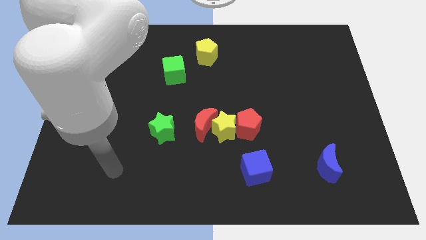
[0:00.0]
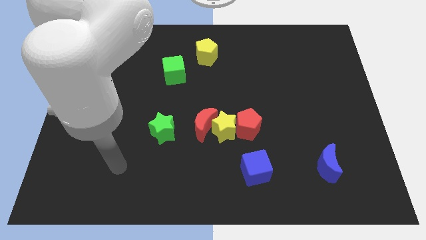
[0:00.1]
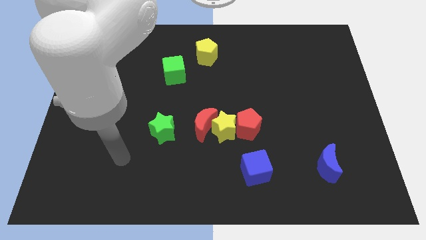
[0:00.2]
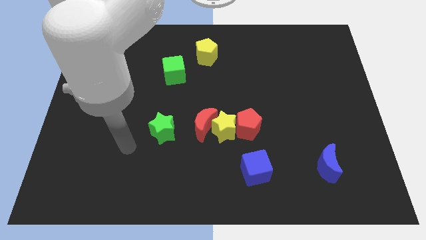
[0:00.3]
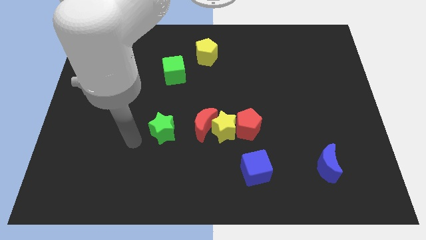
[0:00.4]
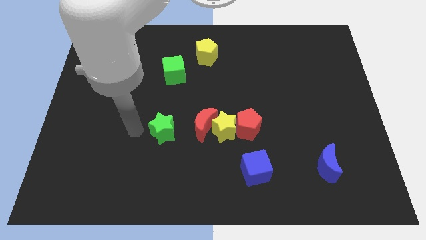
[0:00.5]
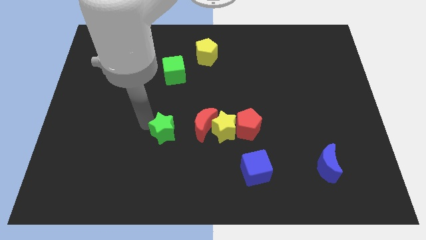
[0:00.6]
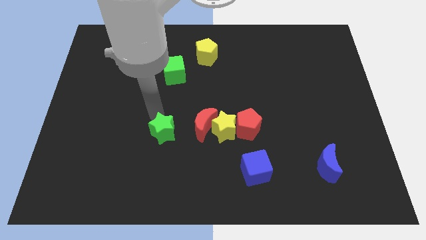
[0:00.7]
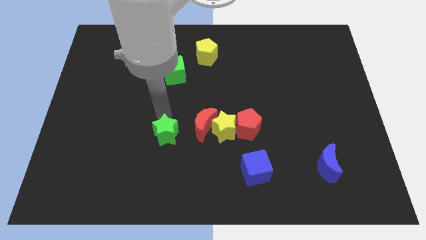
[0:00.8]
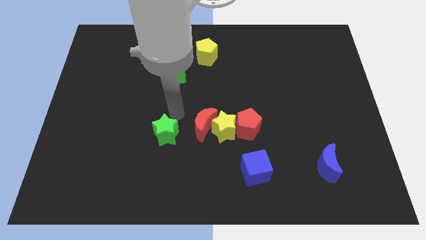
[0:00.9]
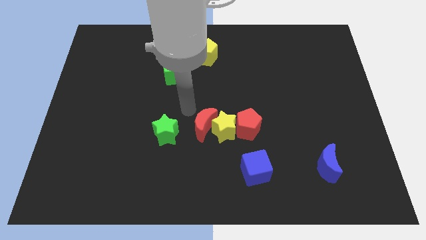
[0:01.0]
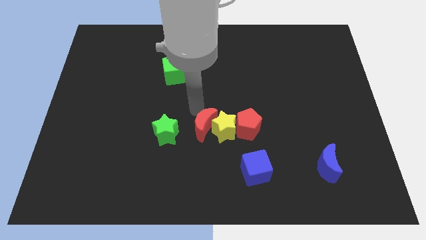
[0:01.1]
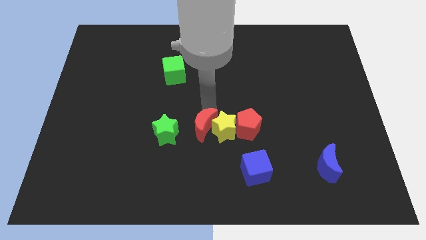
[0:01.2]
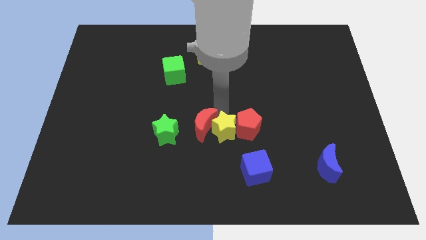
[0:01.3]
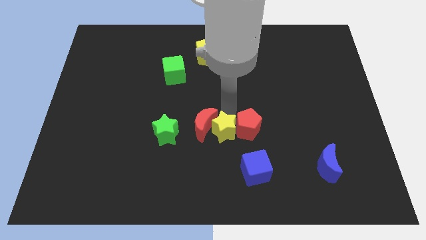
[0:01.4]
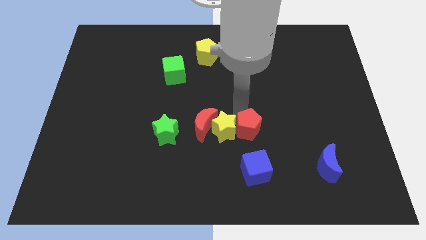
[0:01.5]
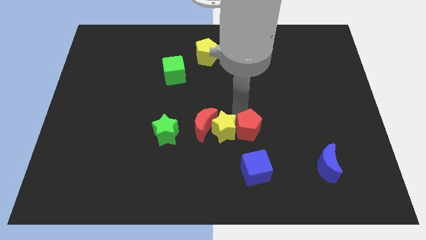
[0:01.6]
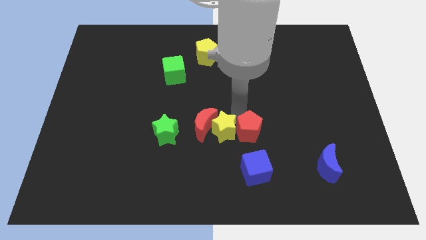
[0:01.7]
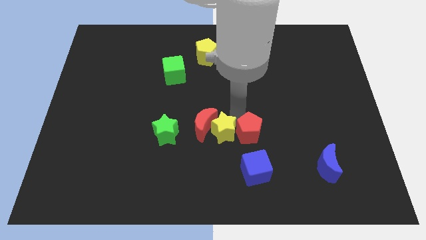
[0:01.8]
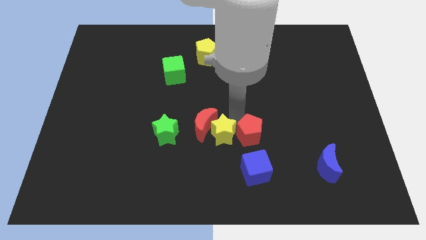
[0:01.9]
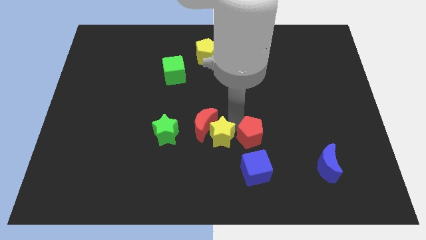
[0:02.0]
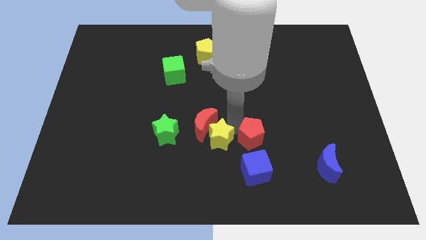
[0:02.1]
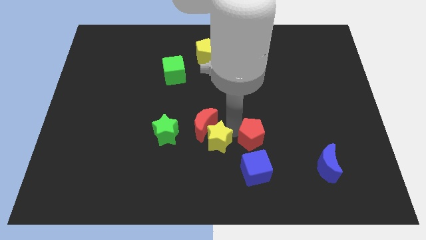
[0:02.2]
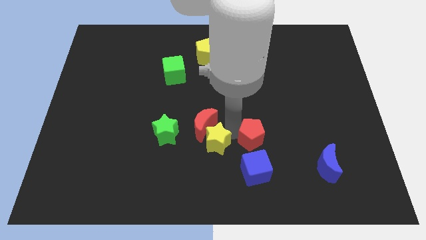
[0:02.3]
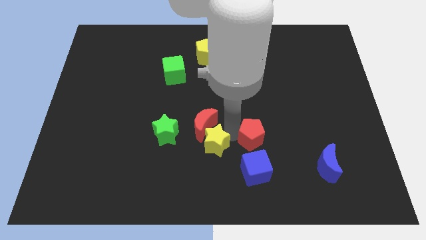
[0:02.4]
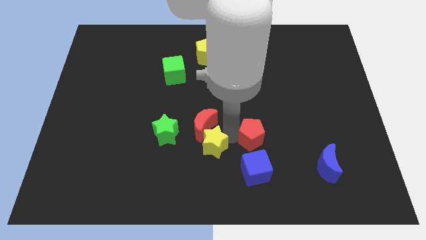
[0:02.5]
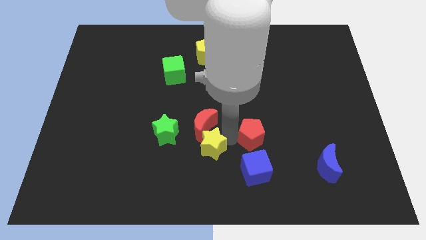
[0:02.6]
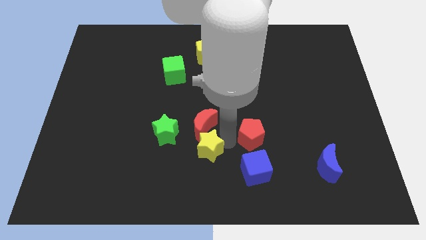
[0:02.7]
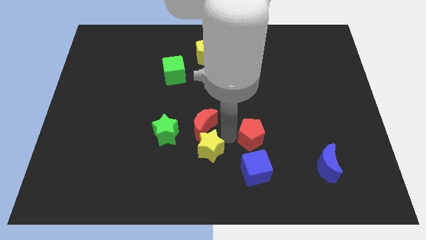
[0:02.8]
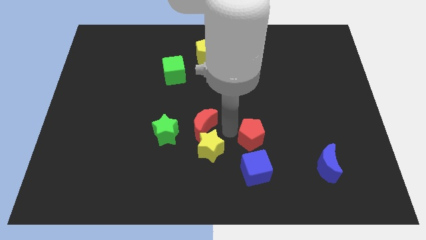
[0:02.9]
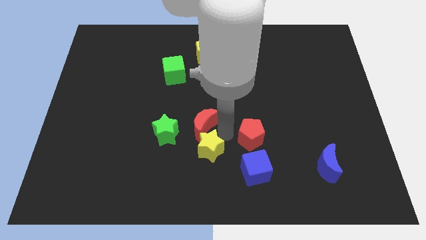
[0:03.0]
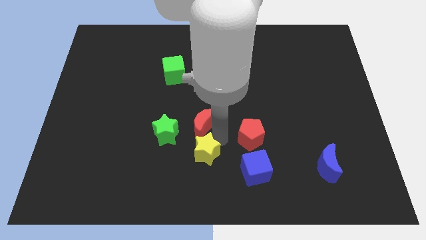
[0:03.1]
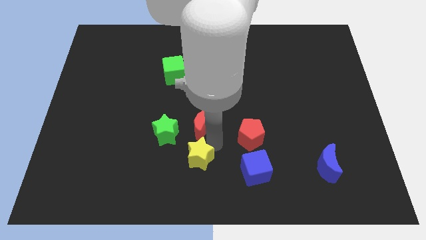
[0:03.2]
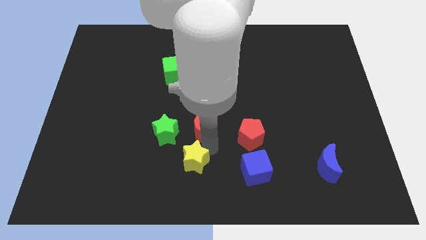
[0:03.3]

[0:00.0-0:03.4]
move the yellow star away from the red moon and red pentagon

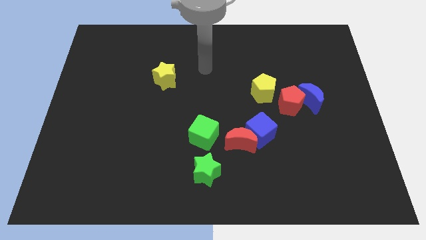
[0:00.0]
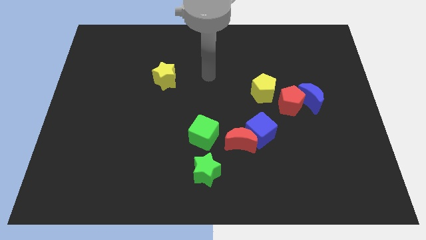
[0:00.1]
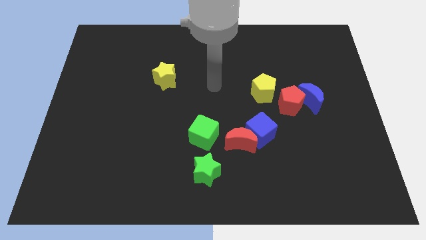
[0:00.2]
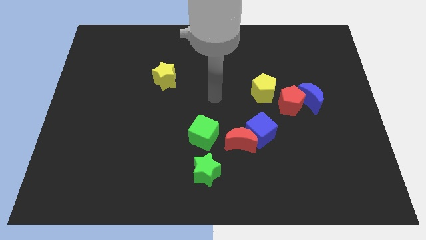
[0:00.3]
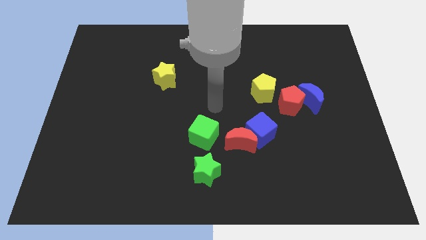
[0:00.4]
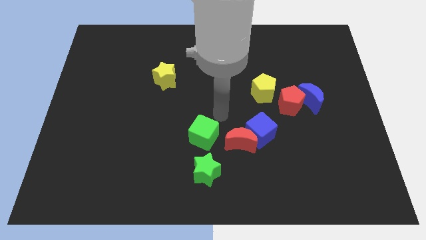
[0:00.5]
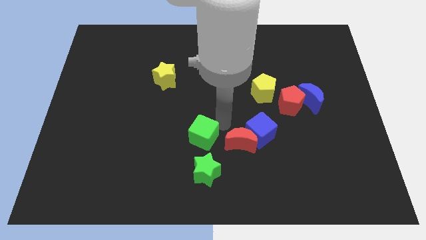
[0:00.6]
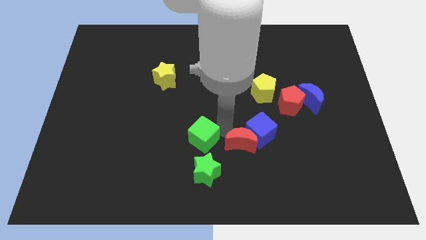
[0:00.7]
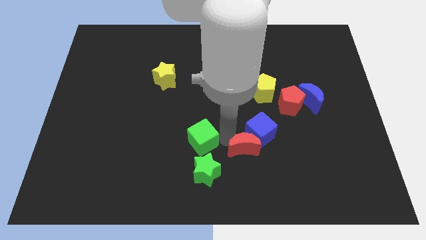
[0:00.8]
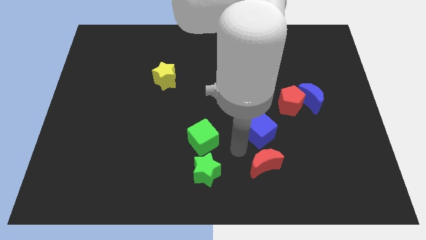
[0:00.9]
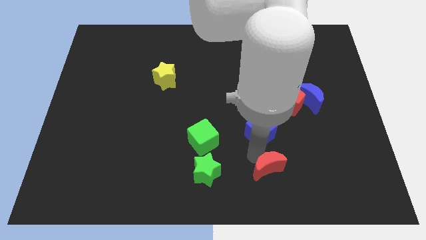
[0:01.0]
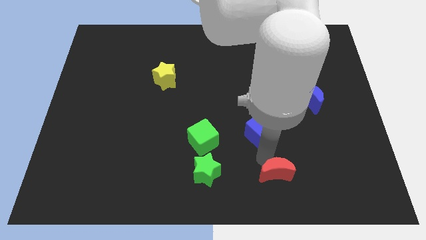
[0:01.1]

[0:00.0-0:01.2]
move the blue cube away from the red moon

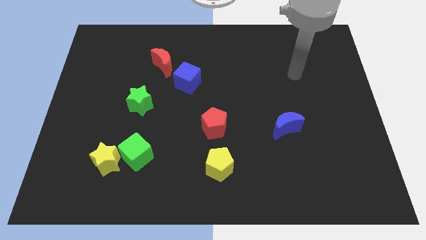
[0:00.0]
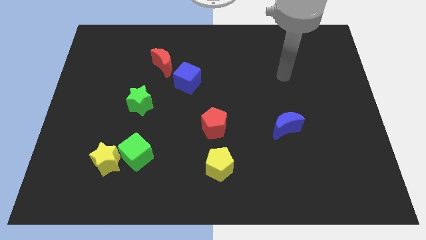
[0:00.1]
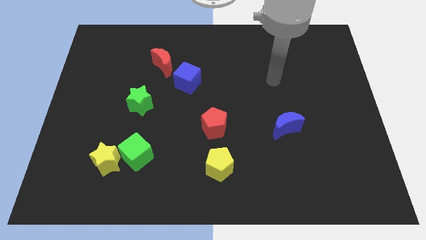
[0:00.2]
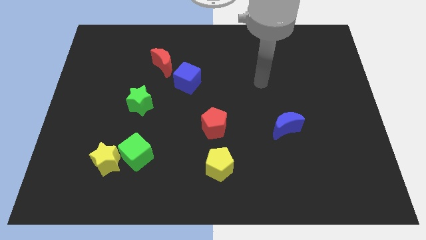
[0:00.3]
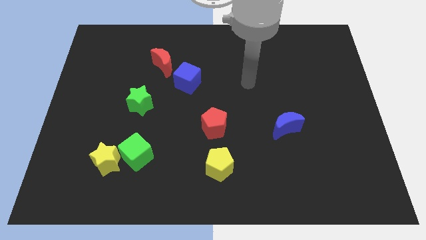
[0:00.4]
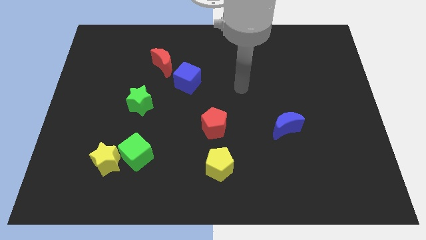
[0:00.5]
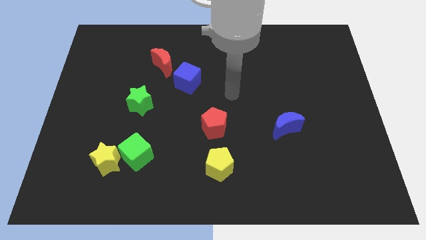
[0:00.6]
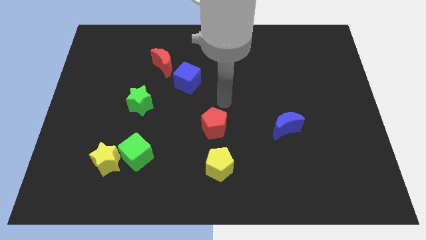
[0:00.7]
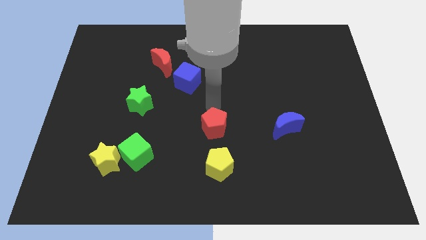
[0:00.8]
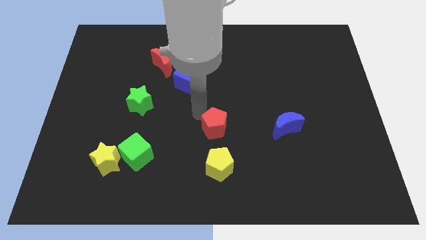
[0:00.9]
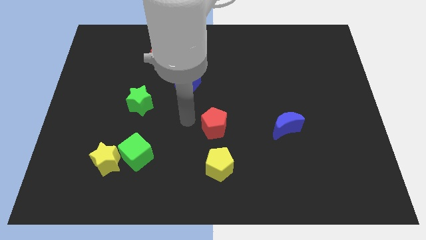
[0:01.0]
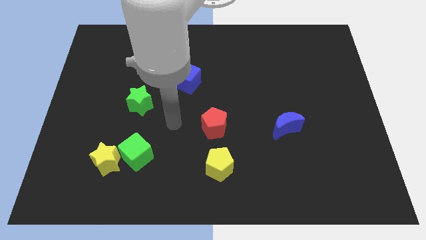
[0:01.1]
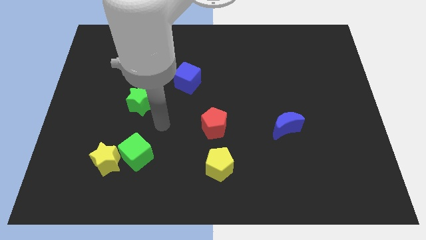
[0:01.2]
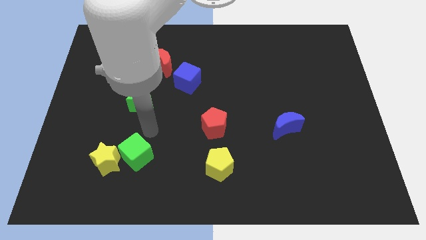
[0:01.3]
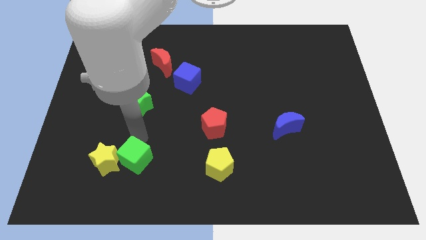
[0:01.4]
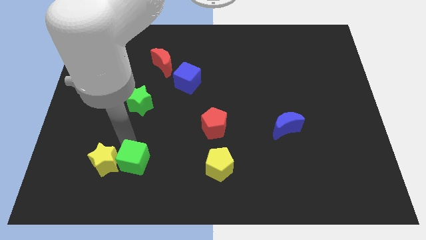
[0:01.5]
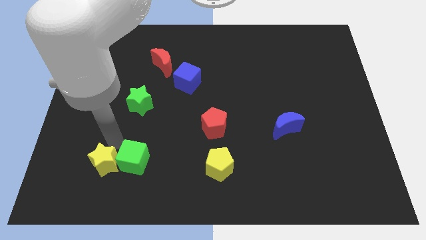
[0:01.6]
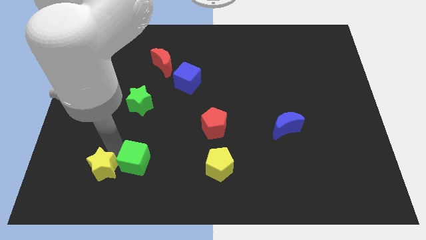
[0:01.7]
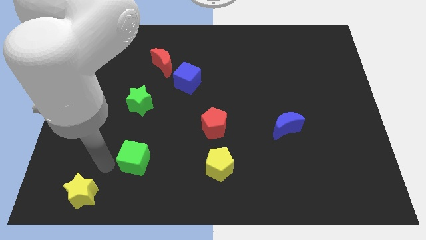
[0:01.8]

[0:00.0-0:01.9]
pull the green cube apart from the yellow star

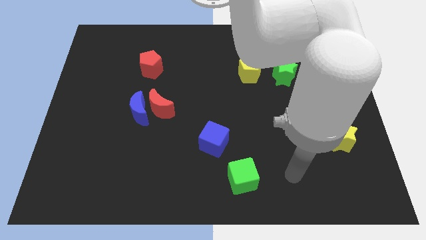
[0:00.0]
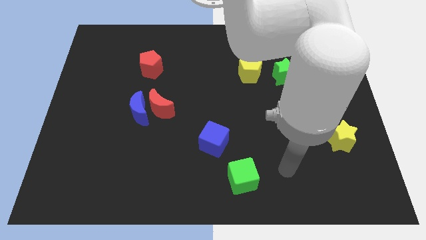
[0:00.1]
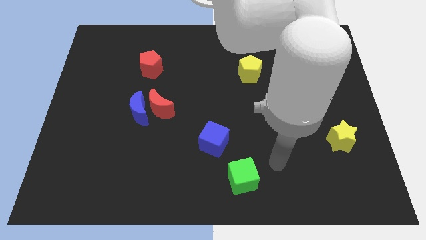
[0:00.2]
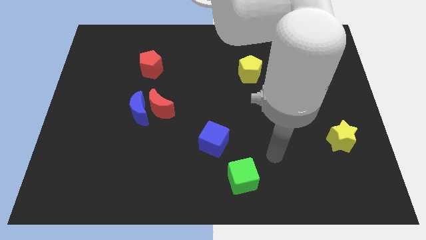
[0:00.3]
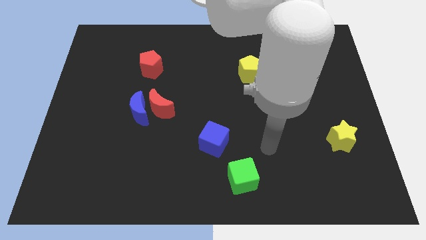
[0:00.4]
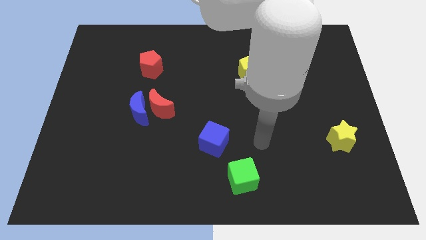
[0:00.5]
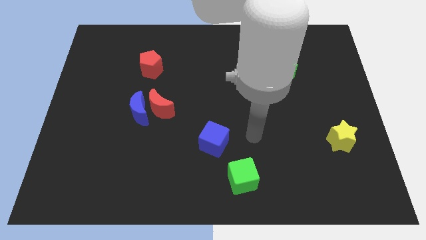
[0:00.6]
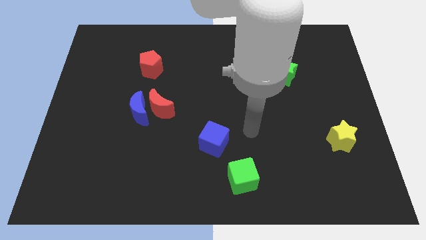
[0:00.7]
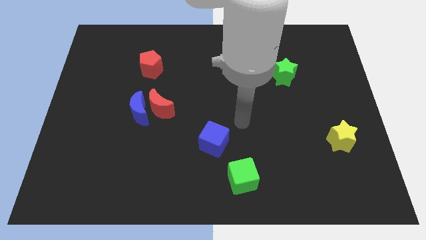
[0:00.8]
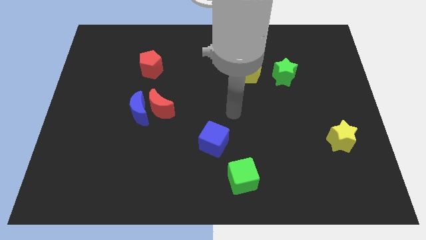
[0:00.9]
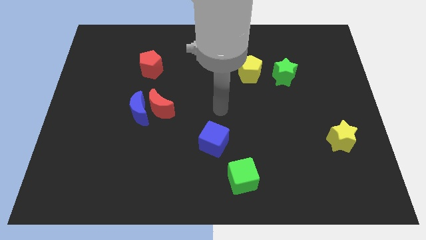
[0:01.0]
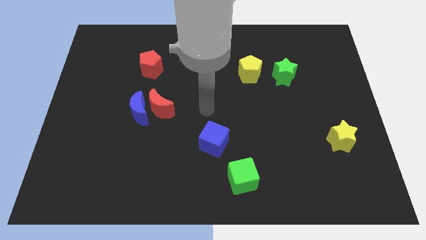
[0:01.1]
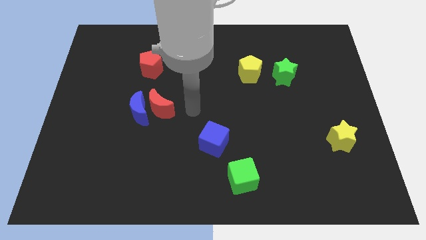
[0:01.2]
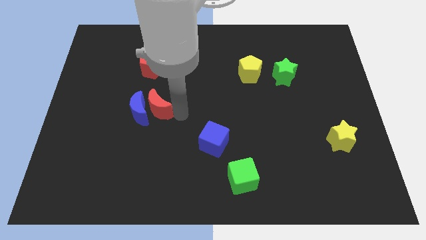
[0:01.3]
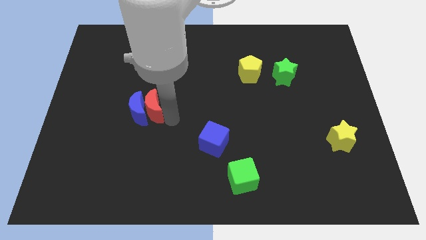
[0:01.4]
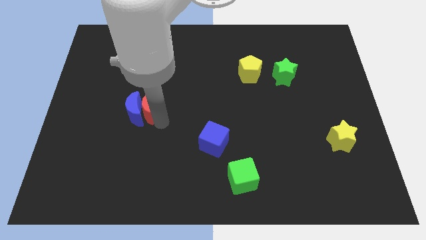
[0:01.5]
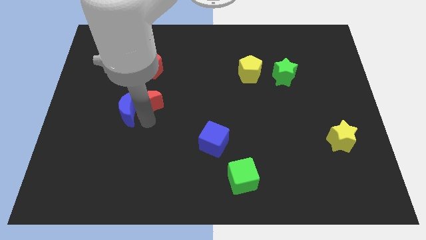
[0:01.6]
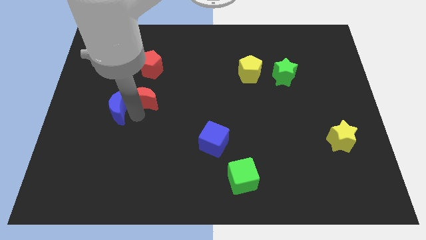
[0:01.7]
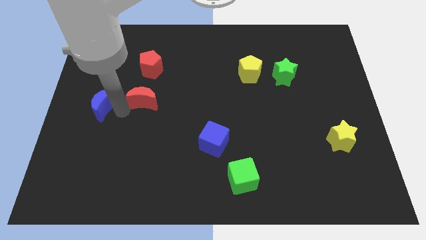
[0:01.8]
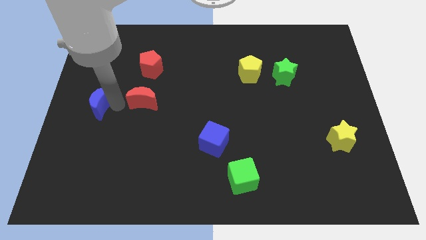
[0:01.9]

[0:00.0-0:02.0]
pull the red moon apart from the blue moon

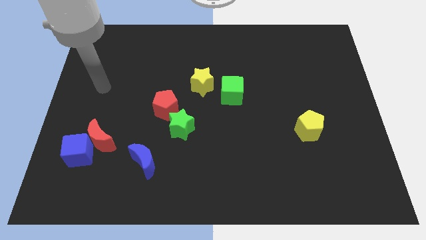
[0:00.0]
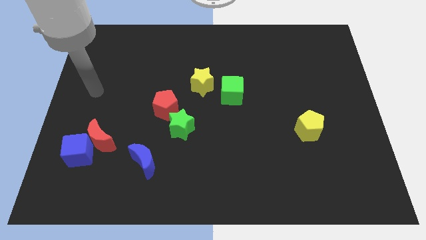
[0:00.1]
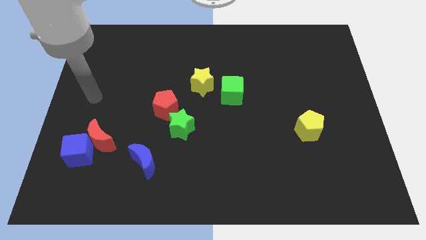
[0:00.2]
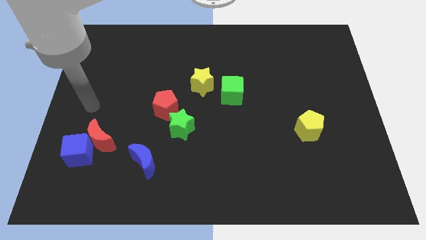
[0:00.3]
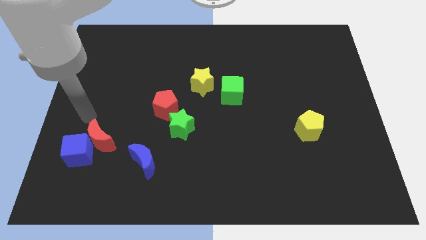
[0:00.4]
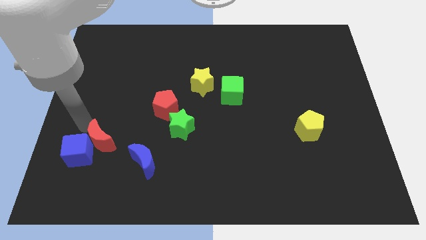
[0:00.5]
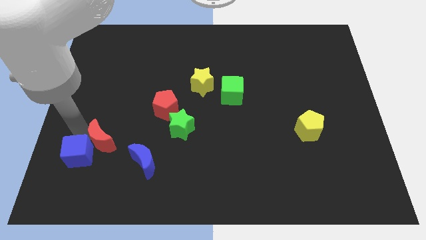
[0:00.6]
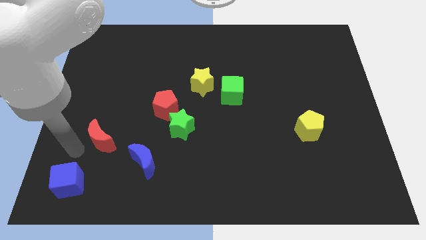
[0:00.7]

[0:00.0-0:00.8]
move the red moon away from the blue cube

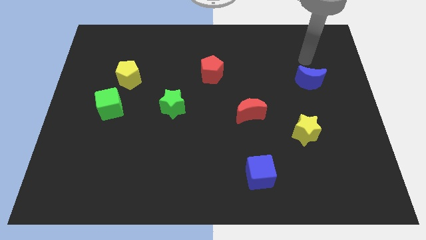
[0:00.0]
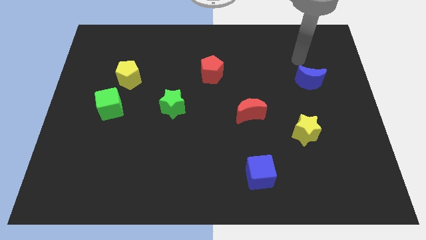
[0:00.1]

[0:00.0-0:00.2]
separate the green cube from the yellow pentagon
